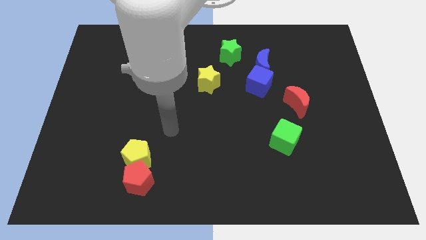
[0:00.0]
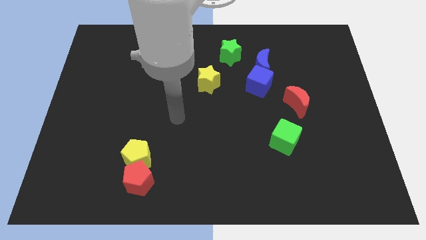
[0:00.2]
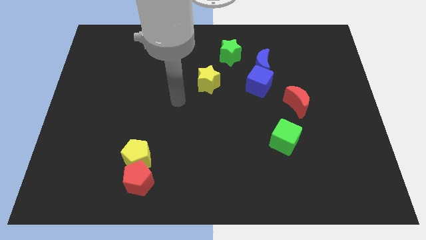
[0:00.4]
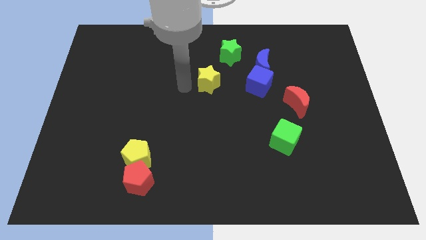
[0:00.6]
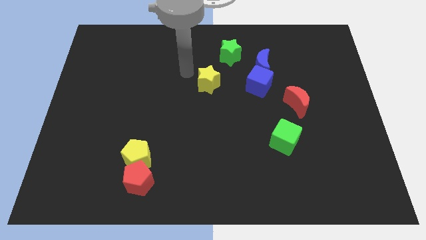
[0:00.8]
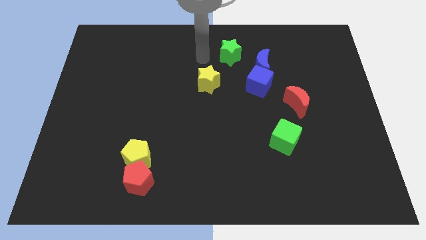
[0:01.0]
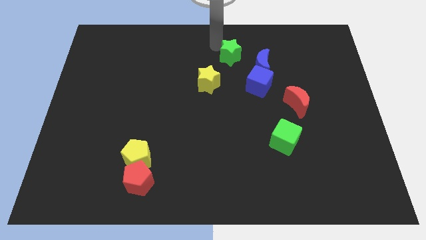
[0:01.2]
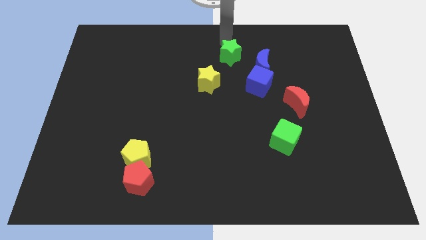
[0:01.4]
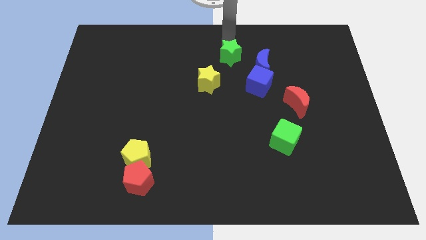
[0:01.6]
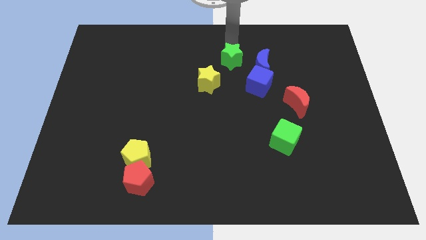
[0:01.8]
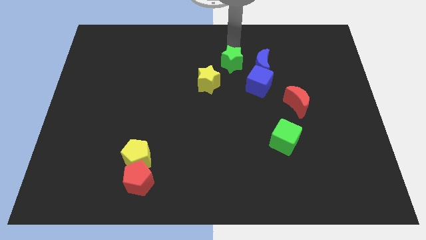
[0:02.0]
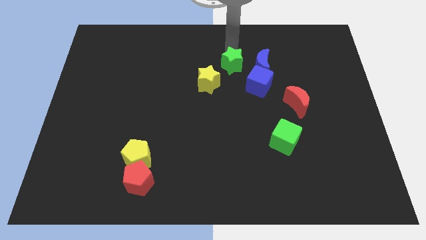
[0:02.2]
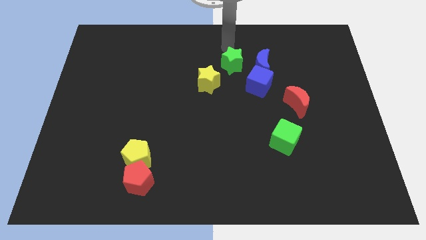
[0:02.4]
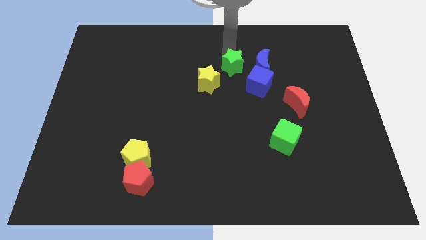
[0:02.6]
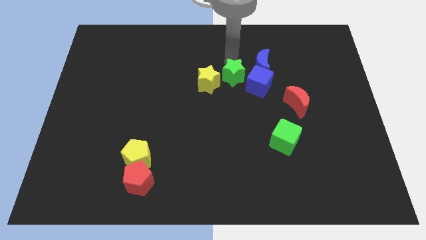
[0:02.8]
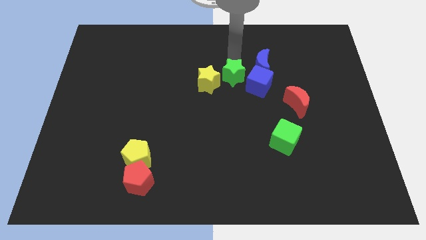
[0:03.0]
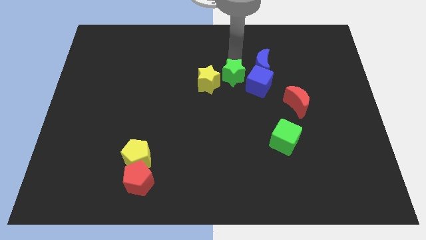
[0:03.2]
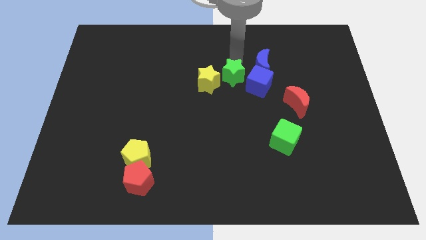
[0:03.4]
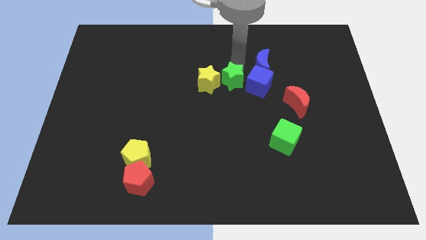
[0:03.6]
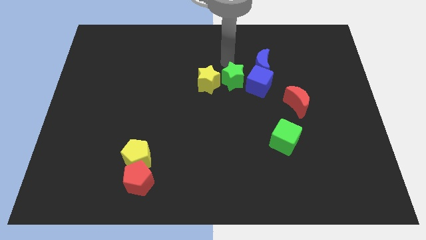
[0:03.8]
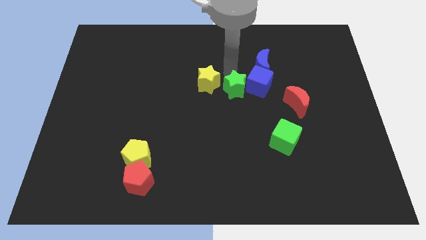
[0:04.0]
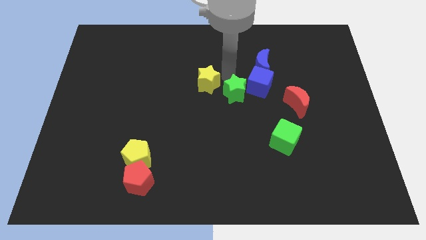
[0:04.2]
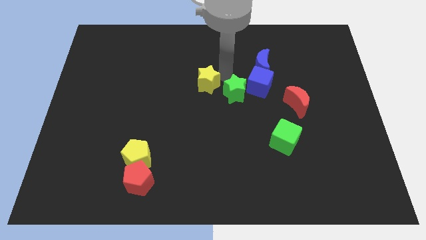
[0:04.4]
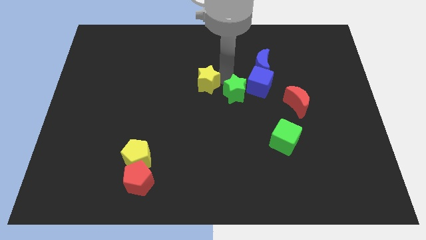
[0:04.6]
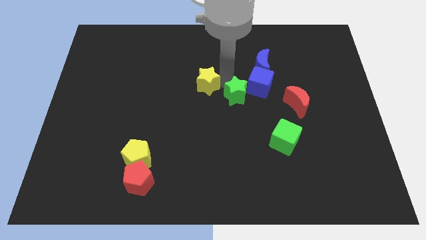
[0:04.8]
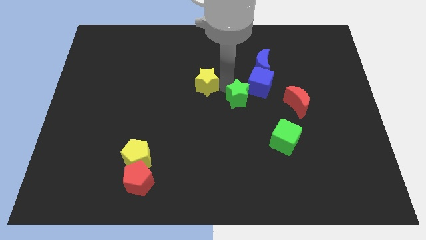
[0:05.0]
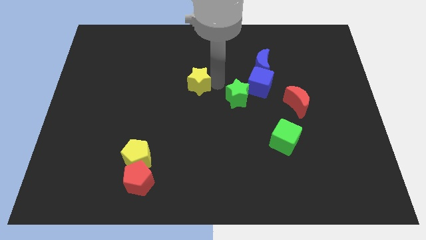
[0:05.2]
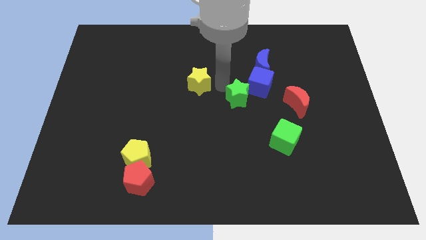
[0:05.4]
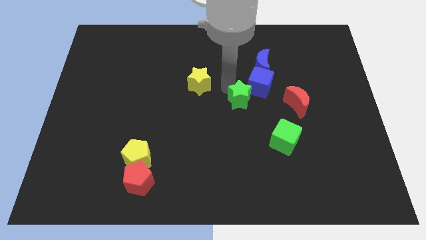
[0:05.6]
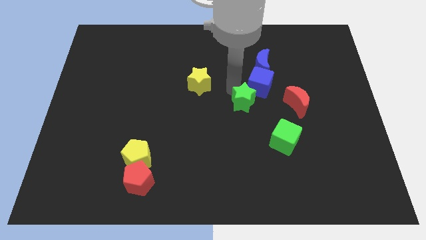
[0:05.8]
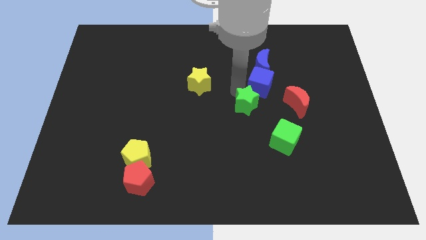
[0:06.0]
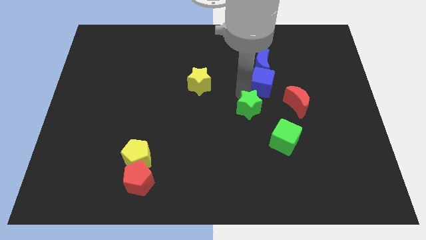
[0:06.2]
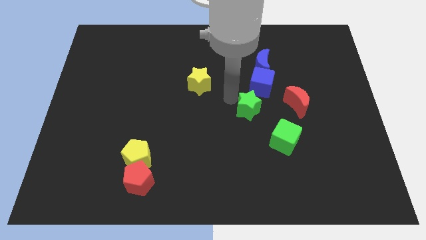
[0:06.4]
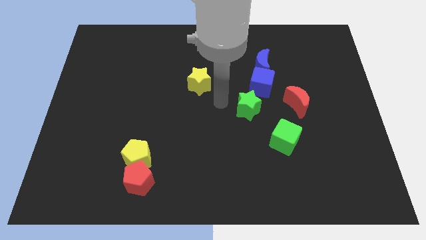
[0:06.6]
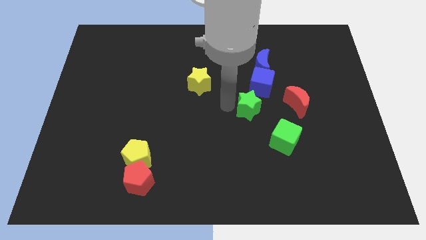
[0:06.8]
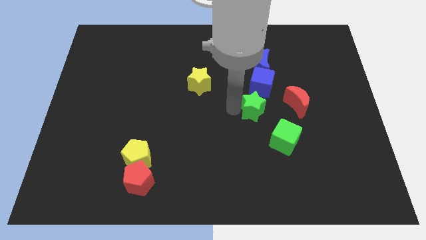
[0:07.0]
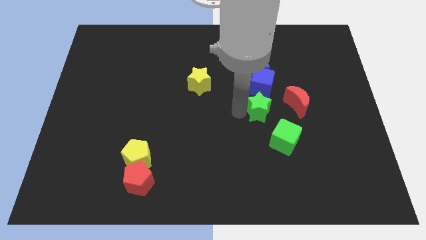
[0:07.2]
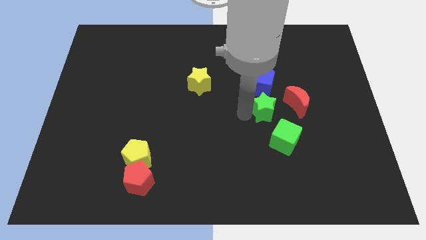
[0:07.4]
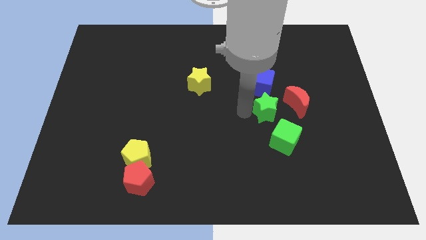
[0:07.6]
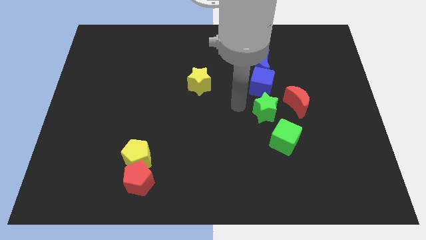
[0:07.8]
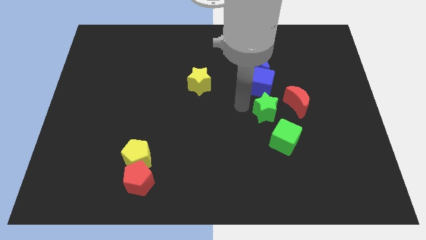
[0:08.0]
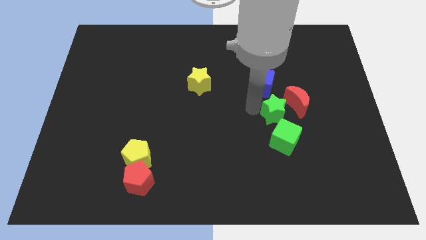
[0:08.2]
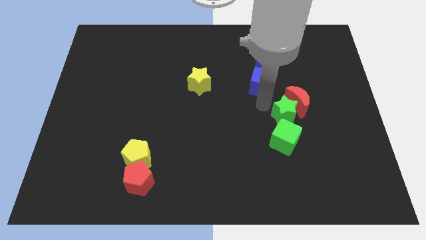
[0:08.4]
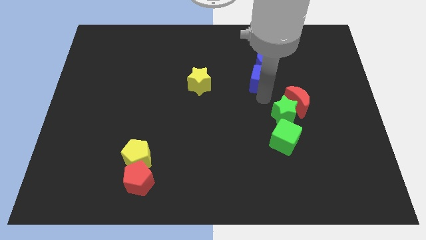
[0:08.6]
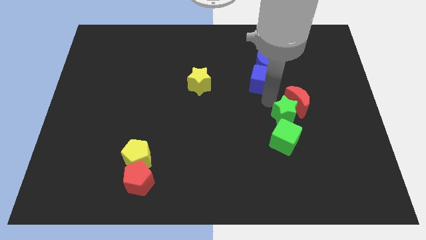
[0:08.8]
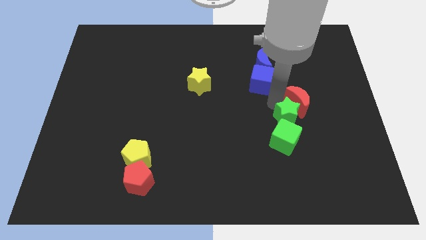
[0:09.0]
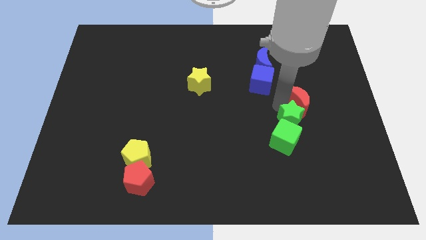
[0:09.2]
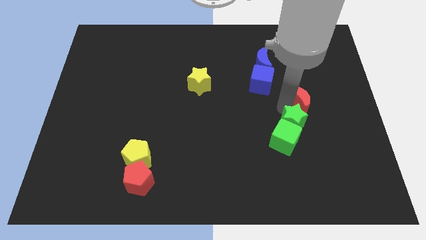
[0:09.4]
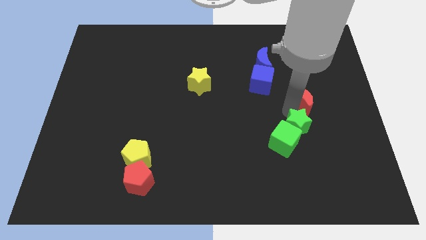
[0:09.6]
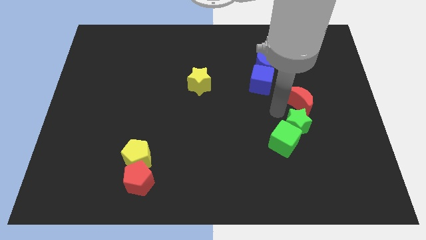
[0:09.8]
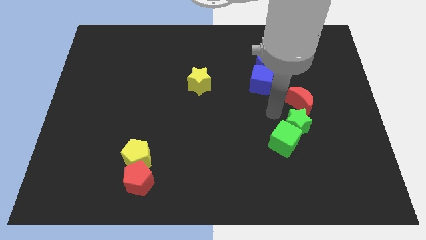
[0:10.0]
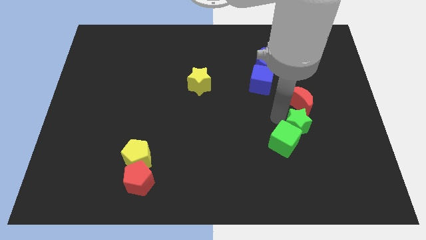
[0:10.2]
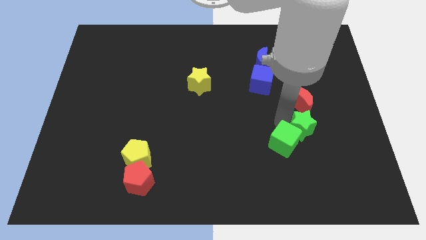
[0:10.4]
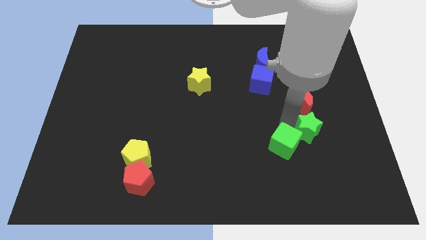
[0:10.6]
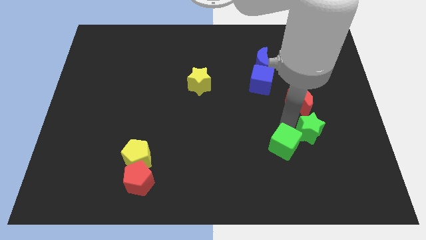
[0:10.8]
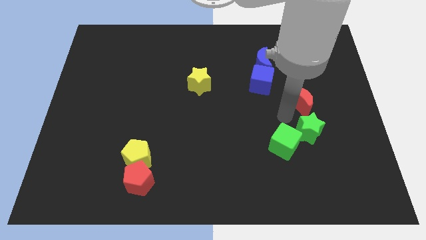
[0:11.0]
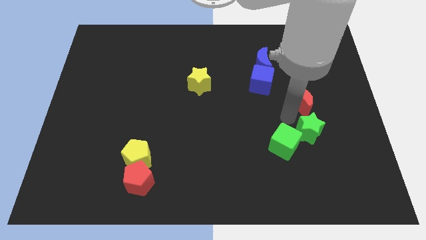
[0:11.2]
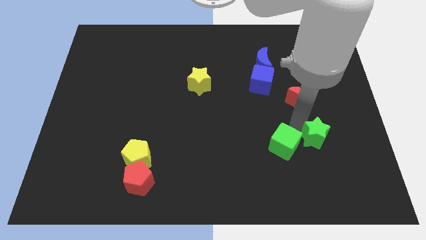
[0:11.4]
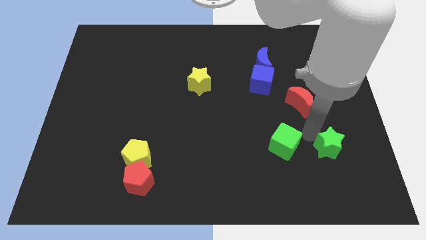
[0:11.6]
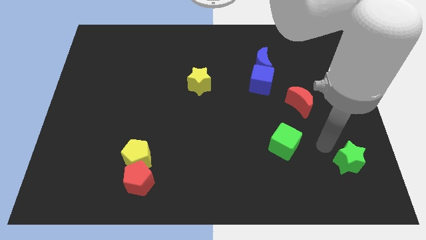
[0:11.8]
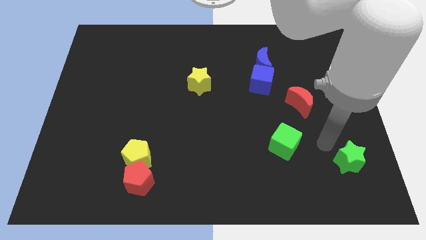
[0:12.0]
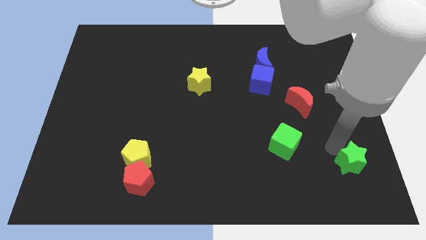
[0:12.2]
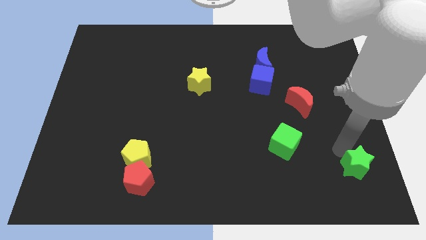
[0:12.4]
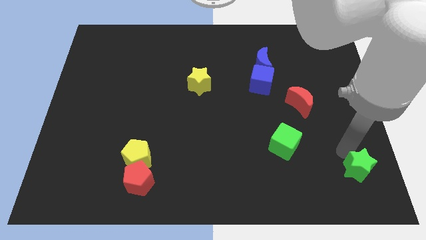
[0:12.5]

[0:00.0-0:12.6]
slide the green star to the bottom right corner
